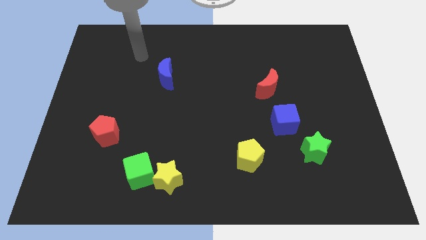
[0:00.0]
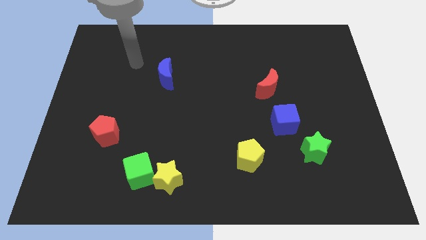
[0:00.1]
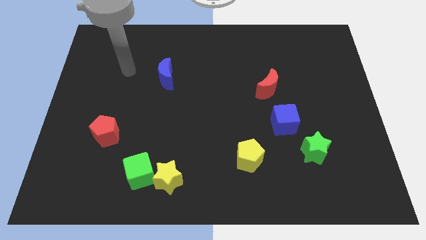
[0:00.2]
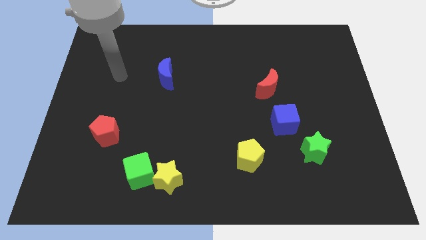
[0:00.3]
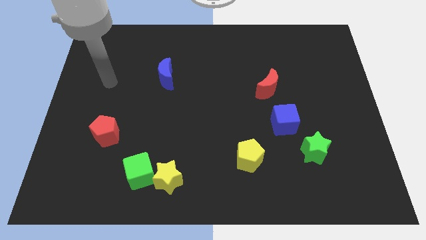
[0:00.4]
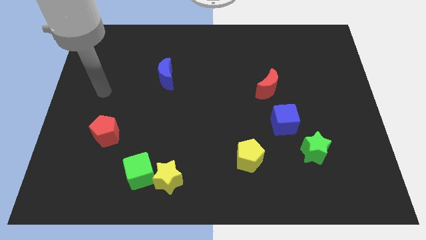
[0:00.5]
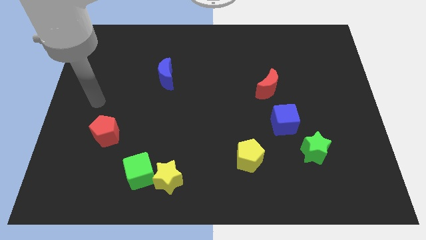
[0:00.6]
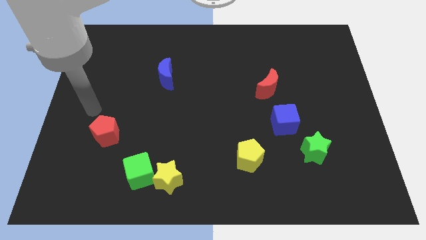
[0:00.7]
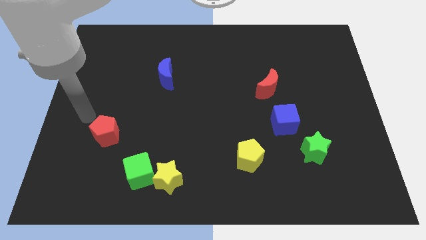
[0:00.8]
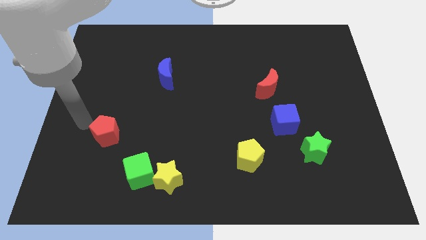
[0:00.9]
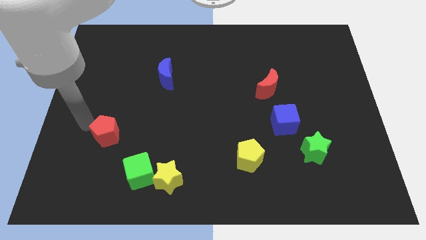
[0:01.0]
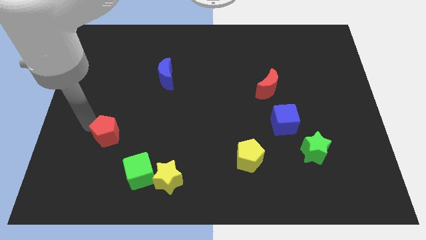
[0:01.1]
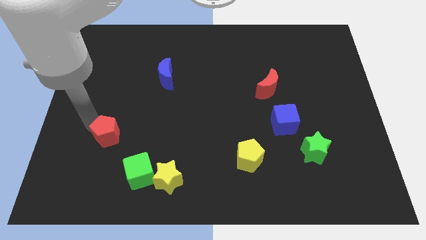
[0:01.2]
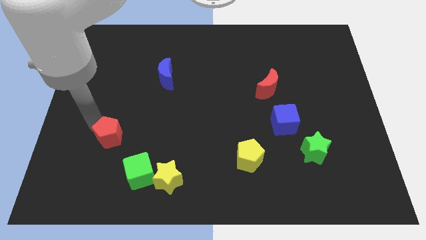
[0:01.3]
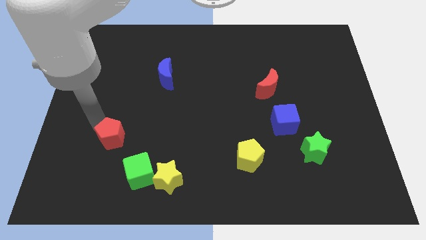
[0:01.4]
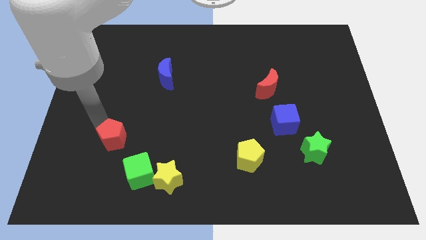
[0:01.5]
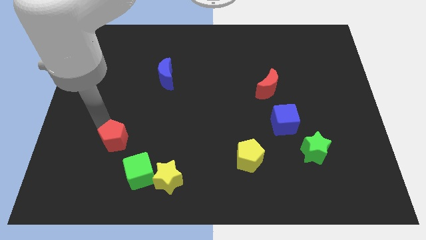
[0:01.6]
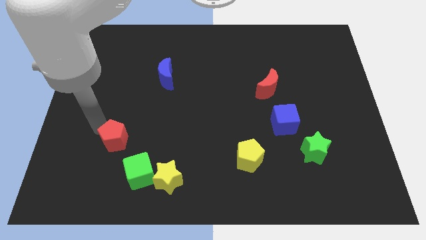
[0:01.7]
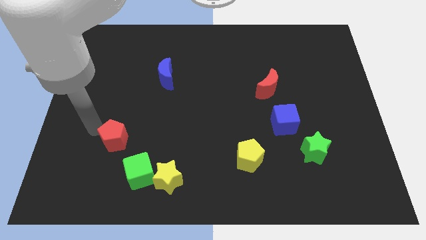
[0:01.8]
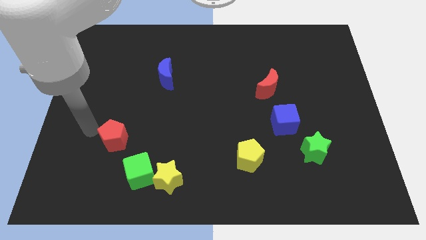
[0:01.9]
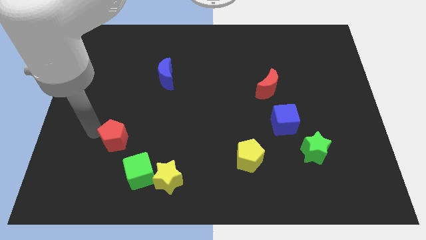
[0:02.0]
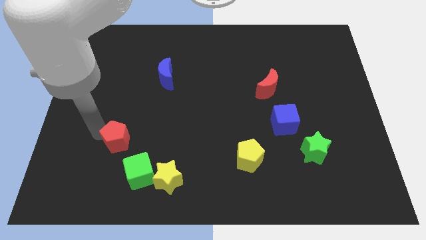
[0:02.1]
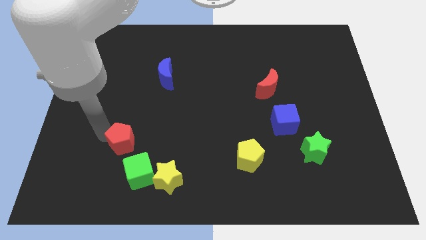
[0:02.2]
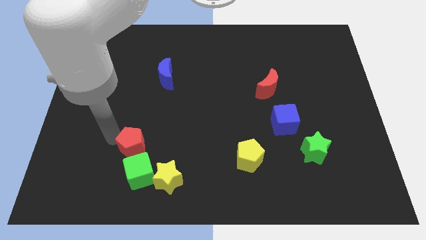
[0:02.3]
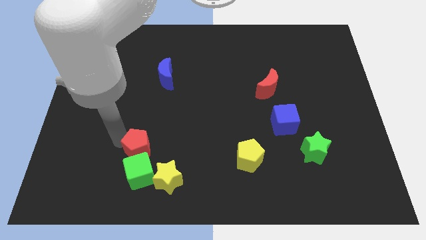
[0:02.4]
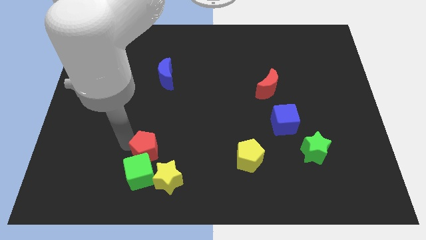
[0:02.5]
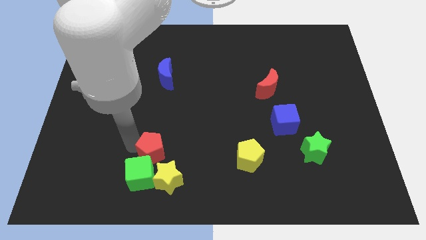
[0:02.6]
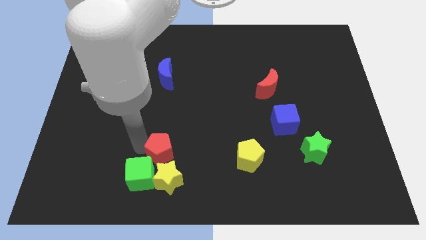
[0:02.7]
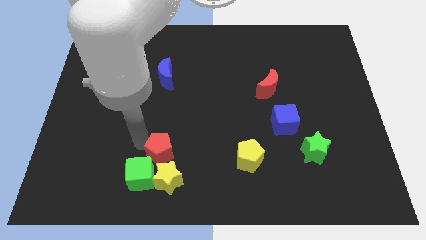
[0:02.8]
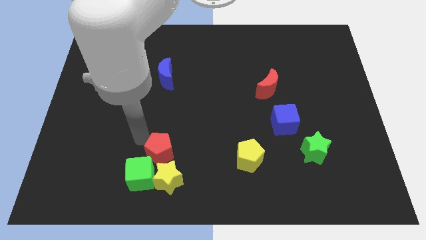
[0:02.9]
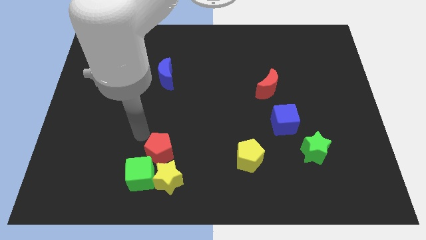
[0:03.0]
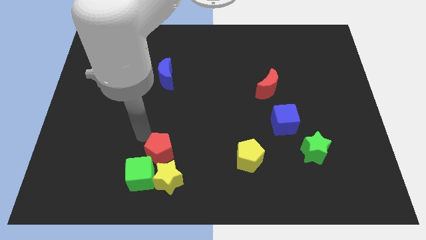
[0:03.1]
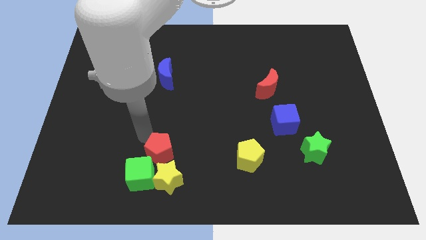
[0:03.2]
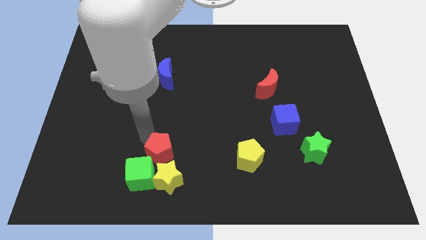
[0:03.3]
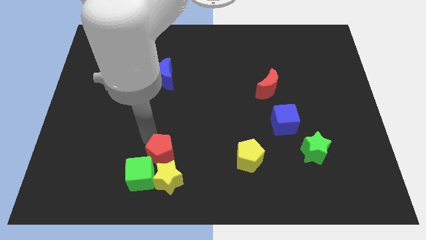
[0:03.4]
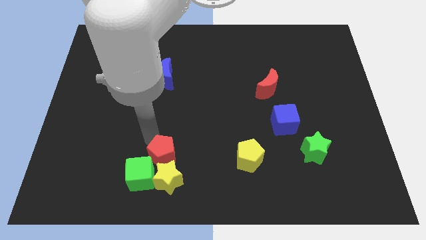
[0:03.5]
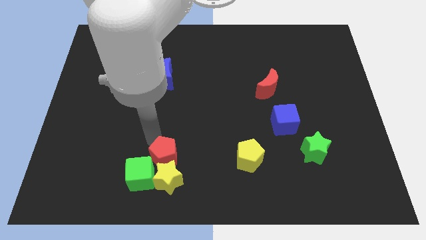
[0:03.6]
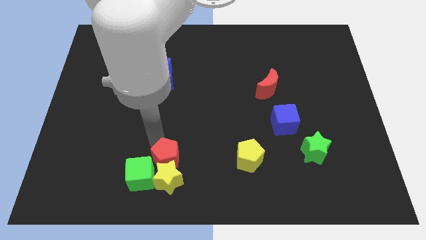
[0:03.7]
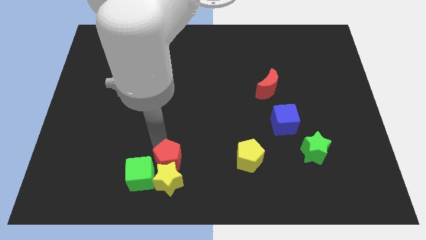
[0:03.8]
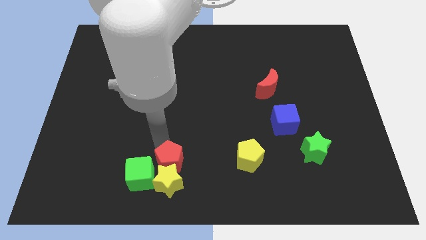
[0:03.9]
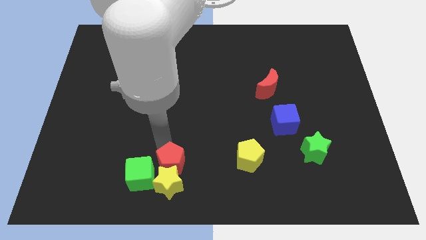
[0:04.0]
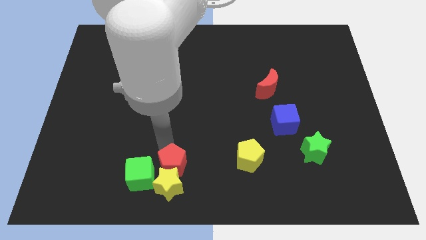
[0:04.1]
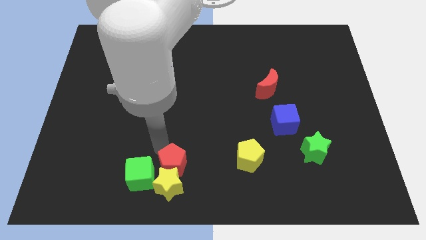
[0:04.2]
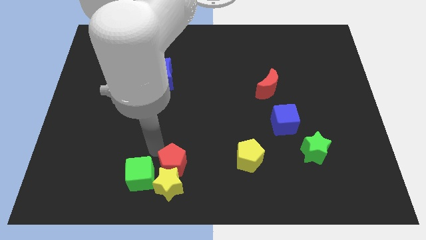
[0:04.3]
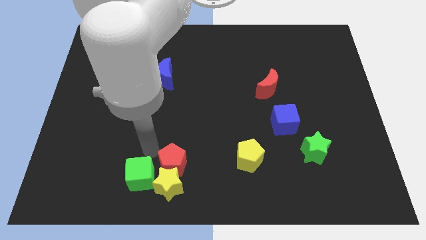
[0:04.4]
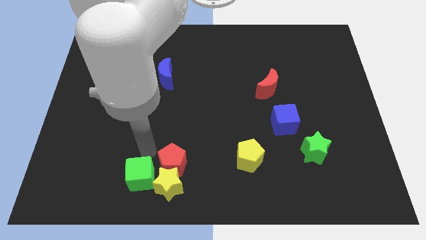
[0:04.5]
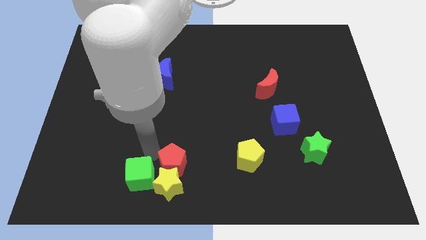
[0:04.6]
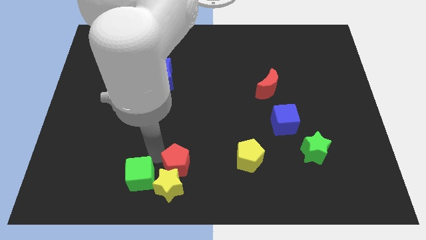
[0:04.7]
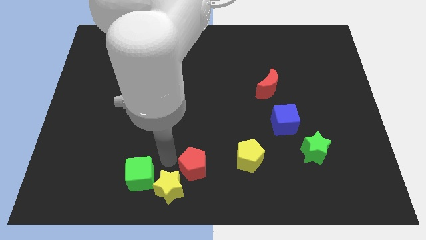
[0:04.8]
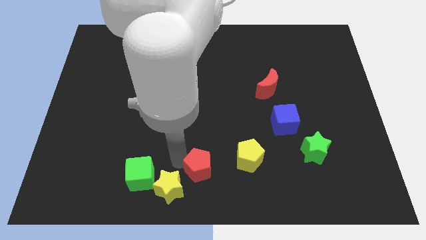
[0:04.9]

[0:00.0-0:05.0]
put the red pentagon right of the yellow star

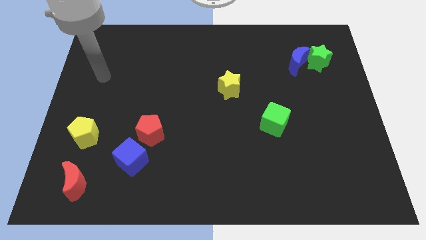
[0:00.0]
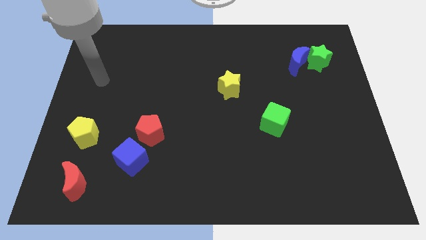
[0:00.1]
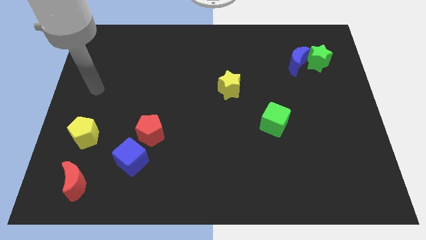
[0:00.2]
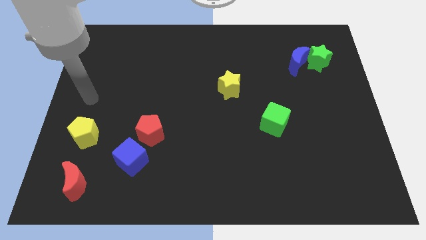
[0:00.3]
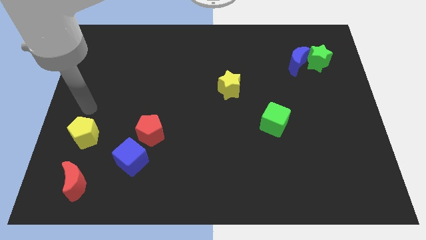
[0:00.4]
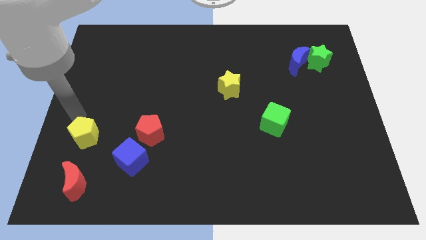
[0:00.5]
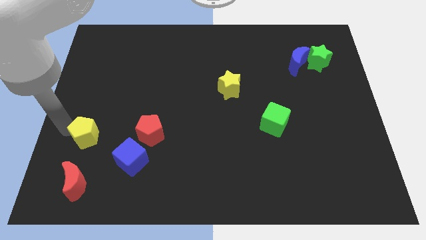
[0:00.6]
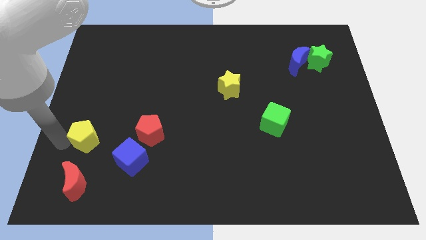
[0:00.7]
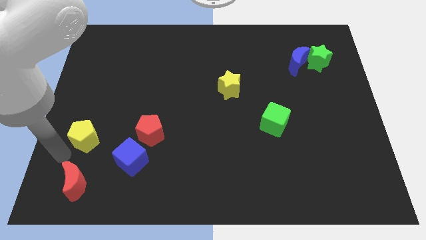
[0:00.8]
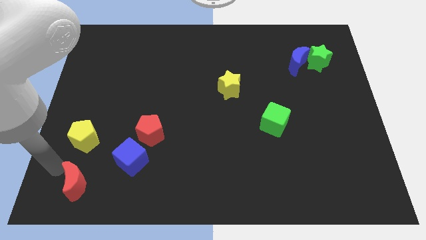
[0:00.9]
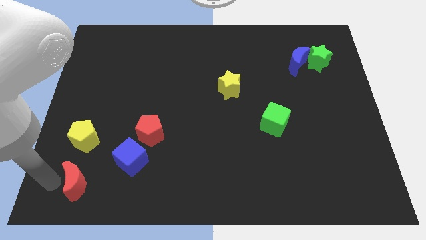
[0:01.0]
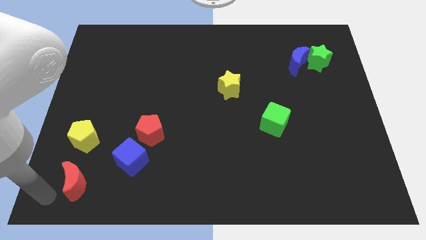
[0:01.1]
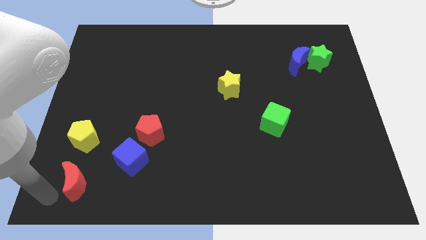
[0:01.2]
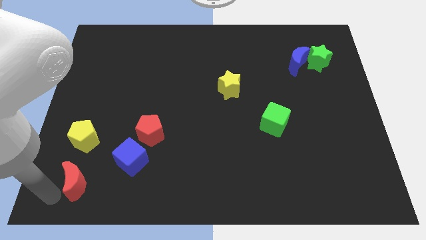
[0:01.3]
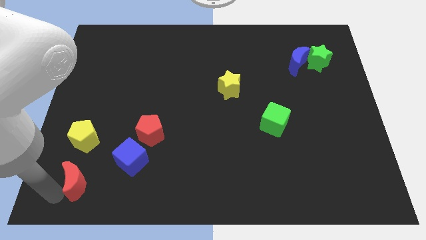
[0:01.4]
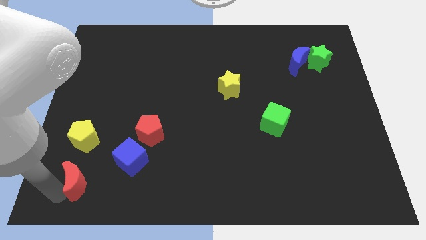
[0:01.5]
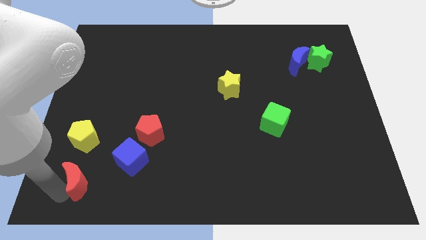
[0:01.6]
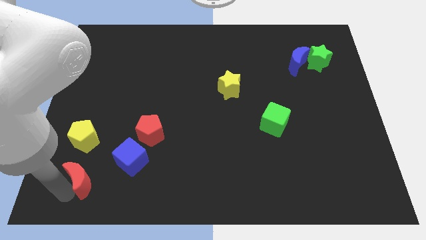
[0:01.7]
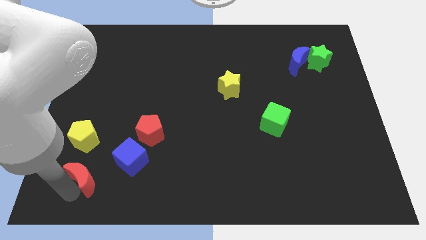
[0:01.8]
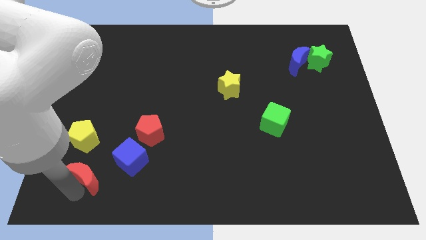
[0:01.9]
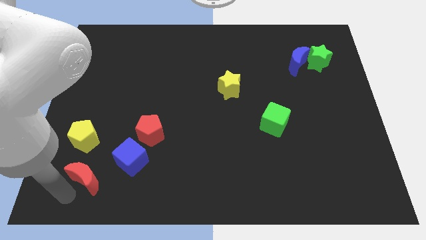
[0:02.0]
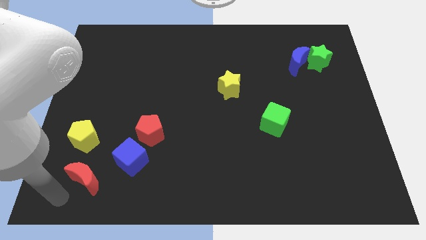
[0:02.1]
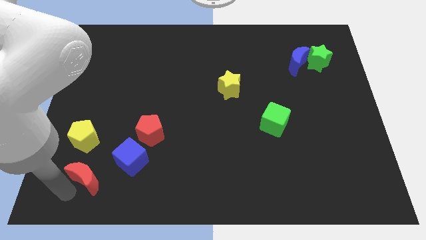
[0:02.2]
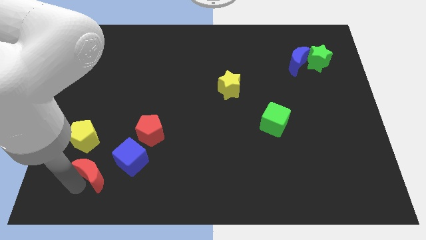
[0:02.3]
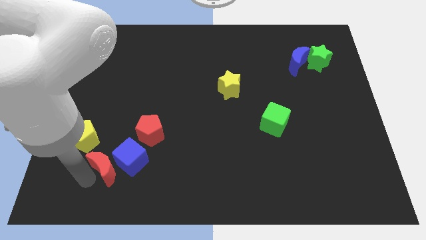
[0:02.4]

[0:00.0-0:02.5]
push the red moon diagonally down and to the left of the red pentagon
